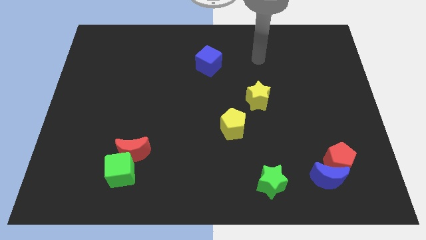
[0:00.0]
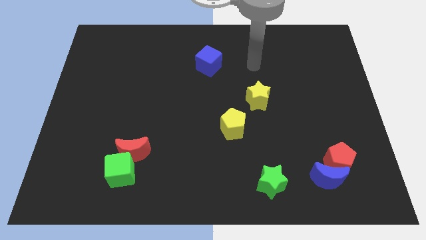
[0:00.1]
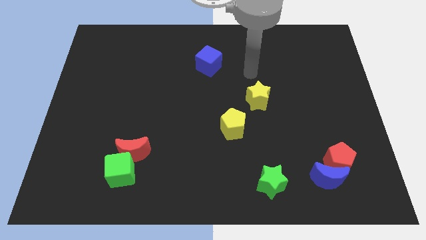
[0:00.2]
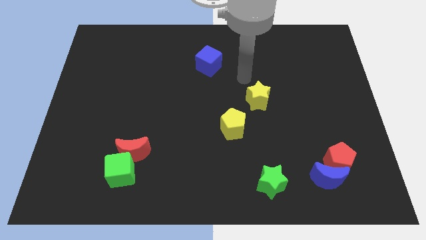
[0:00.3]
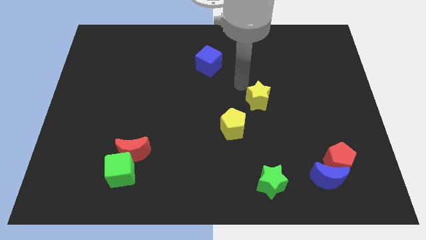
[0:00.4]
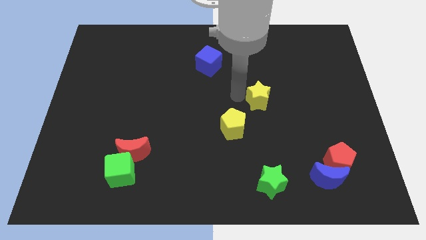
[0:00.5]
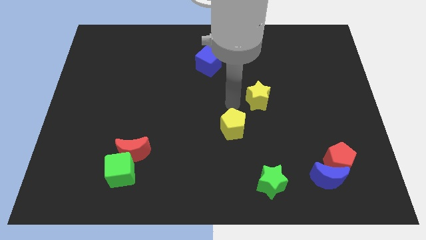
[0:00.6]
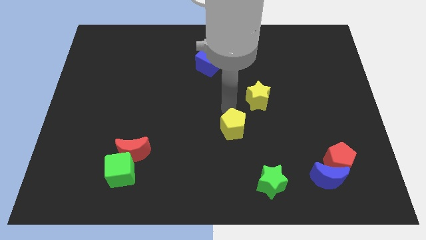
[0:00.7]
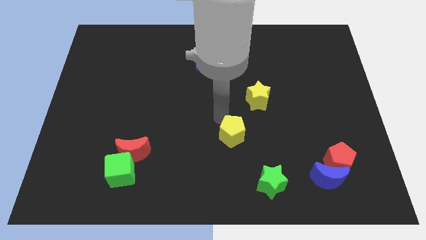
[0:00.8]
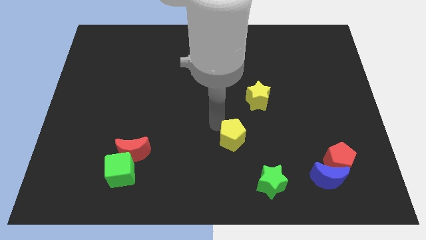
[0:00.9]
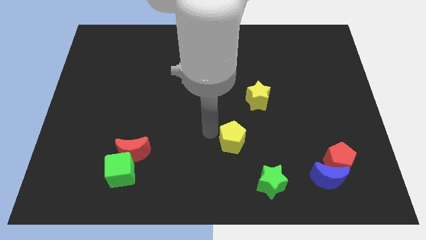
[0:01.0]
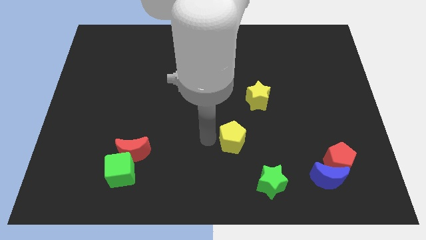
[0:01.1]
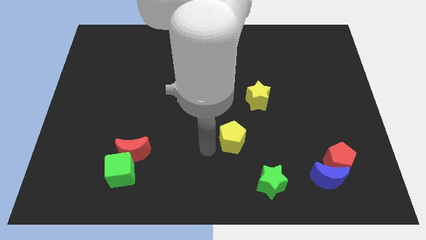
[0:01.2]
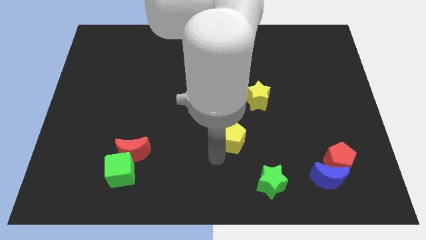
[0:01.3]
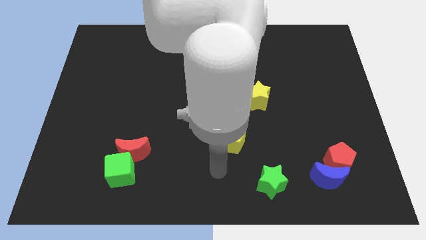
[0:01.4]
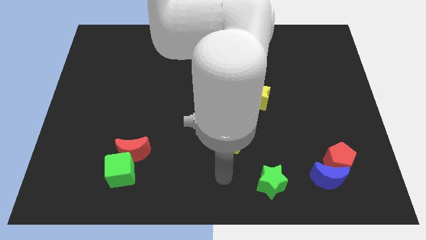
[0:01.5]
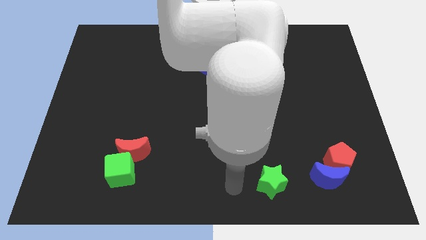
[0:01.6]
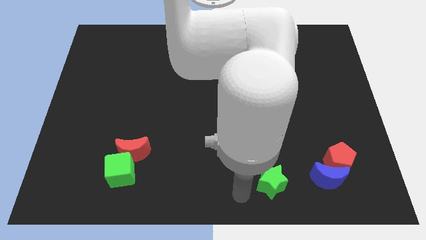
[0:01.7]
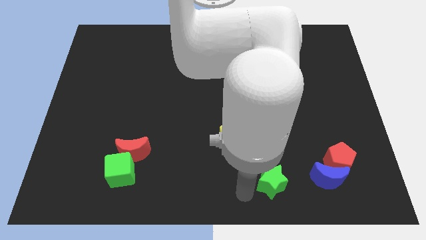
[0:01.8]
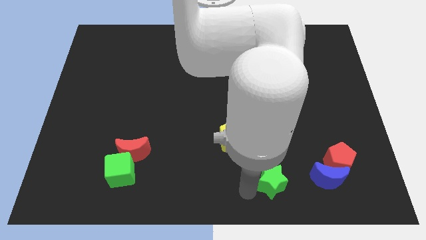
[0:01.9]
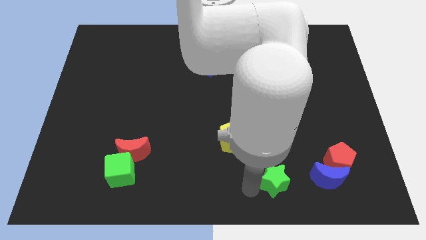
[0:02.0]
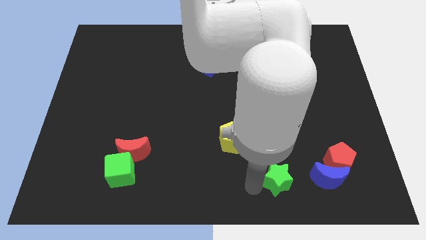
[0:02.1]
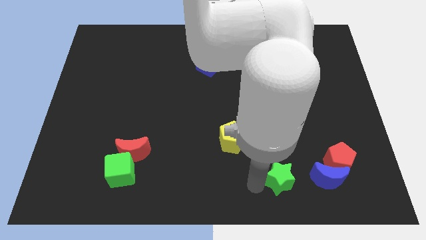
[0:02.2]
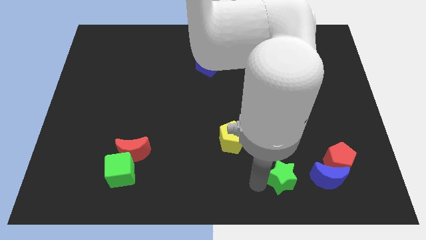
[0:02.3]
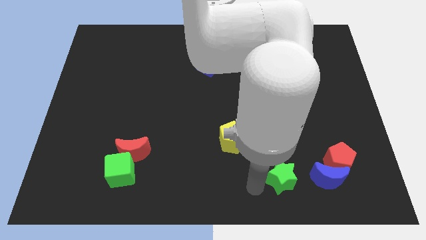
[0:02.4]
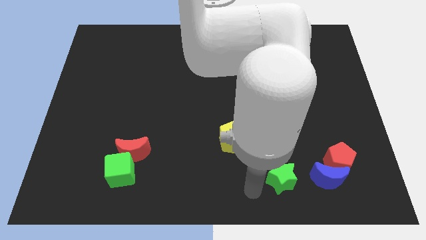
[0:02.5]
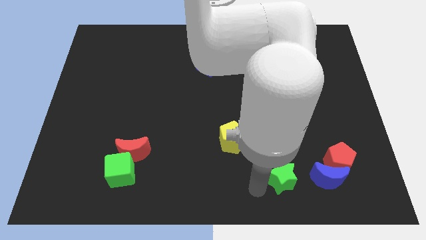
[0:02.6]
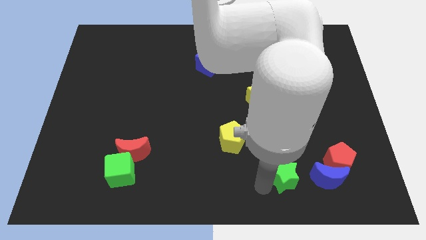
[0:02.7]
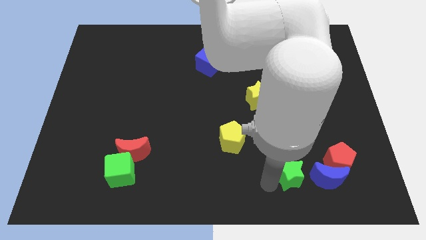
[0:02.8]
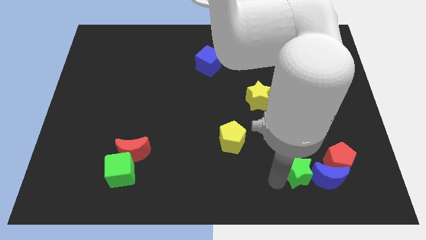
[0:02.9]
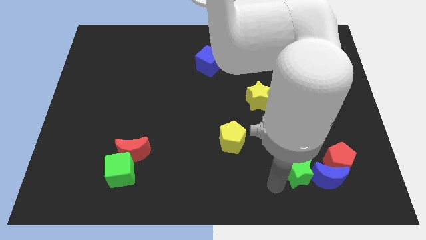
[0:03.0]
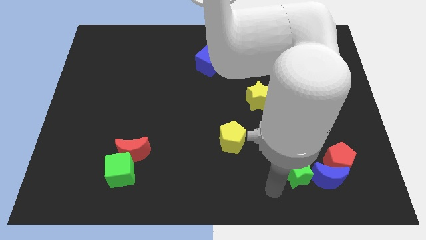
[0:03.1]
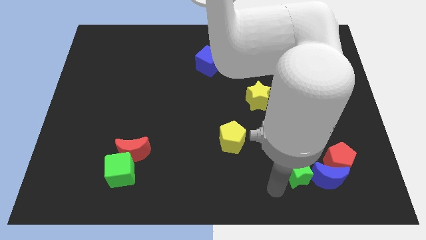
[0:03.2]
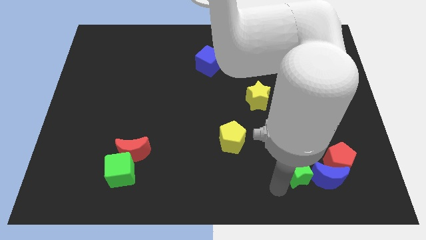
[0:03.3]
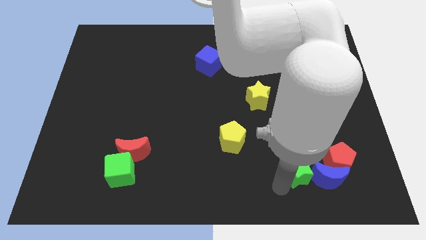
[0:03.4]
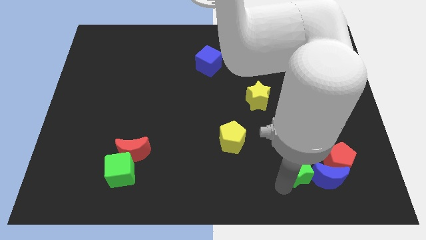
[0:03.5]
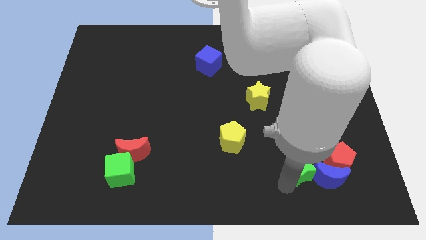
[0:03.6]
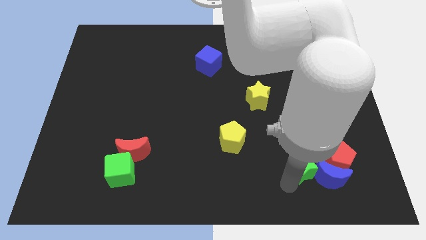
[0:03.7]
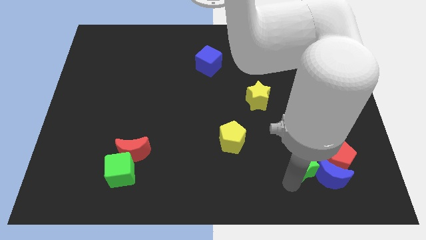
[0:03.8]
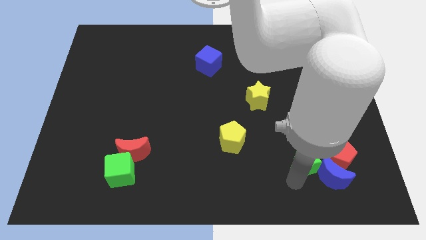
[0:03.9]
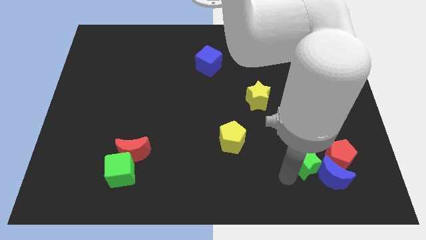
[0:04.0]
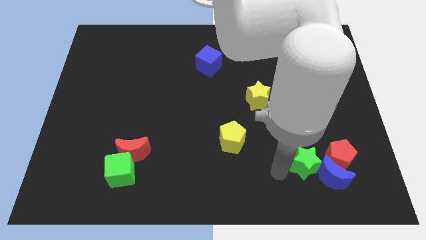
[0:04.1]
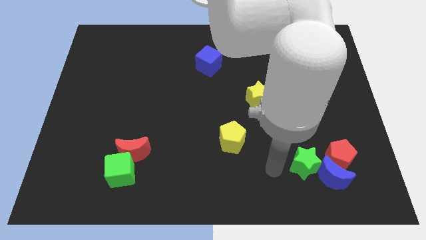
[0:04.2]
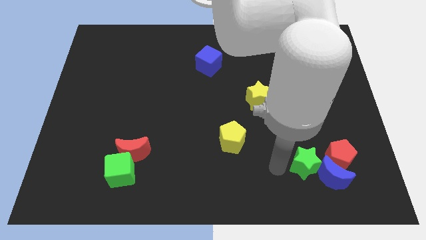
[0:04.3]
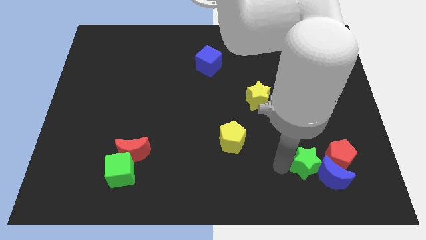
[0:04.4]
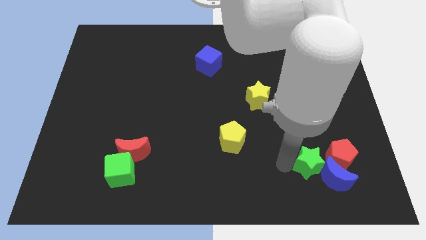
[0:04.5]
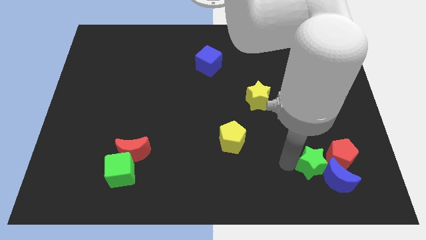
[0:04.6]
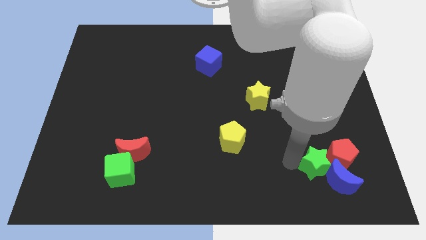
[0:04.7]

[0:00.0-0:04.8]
slide the green star next to the red pentagon

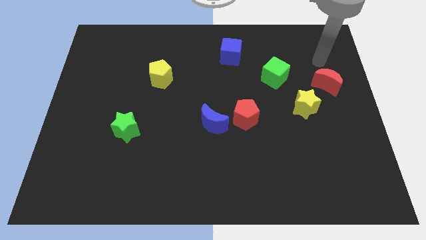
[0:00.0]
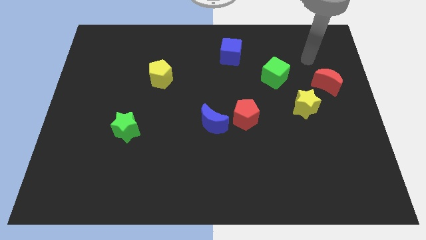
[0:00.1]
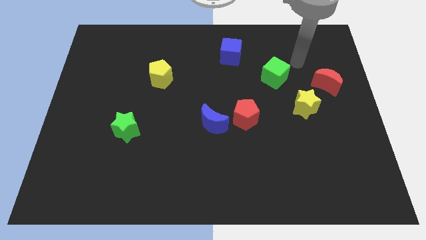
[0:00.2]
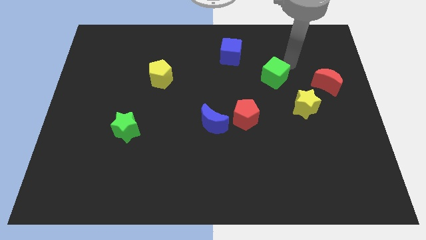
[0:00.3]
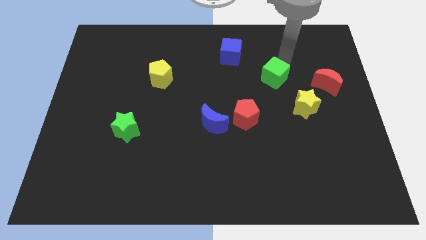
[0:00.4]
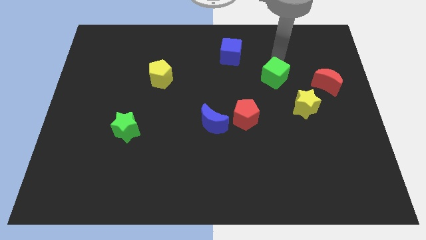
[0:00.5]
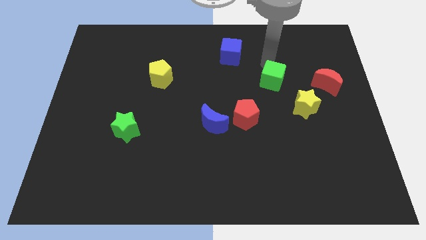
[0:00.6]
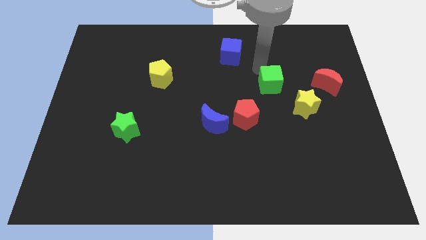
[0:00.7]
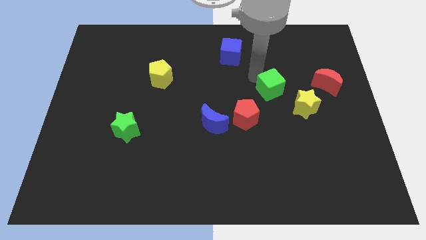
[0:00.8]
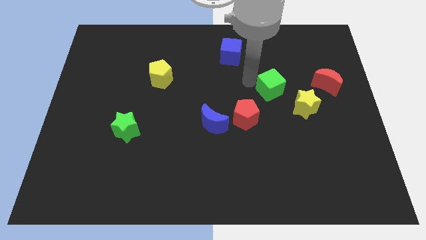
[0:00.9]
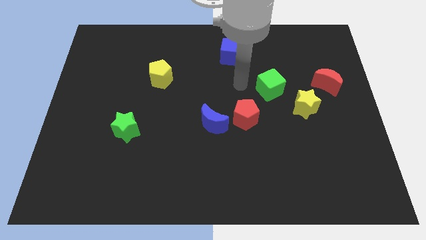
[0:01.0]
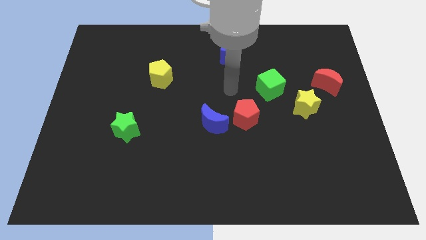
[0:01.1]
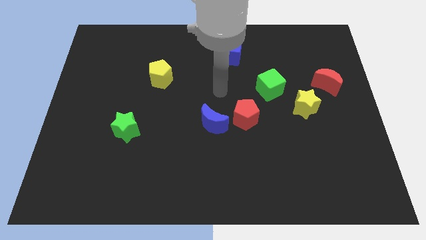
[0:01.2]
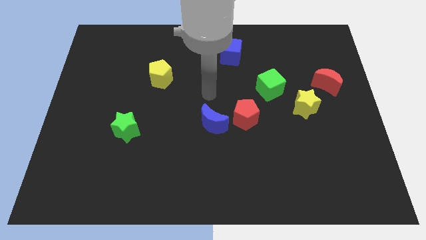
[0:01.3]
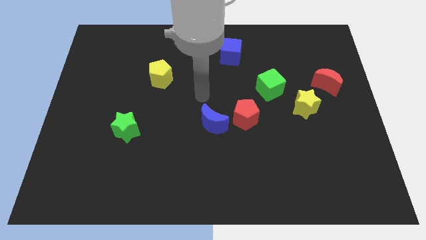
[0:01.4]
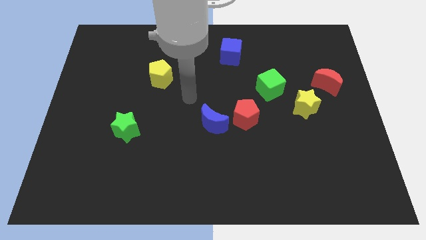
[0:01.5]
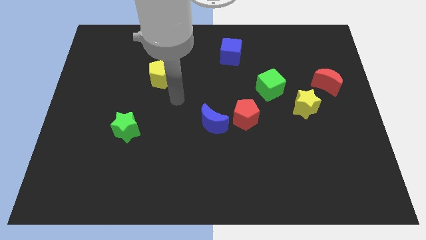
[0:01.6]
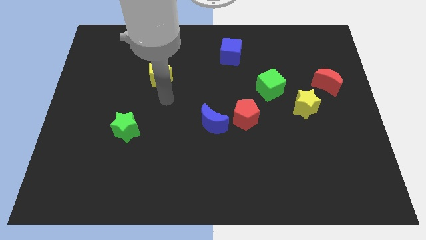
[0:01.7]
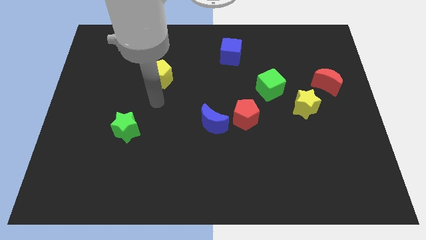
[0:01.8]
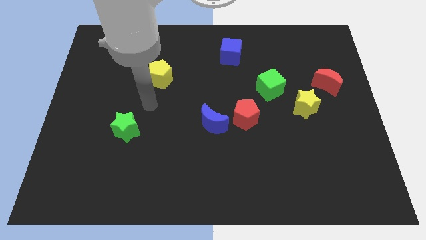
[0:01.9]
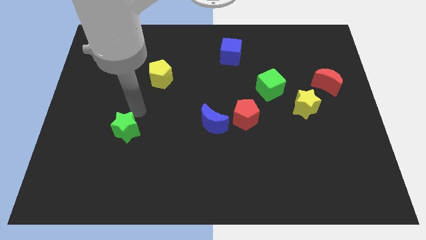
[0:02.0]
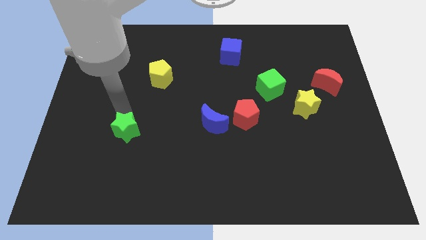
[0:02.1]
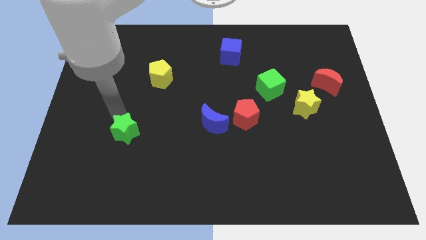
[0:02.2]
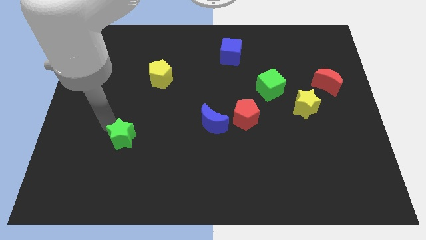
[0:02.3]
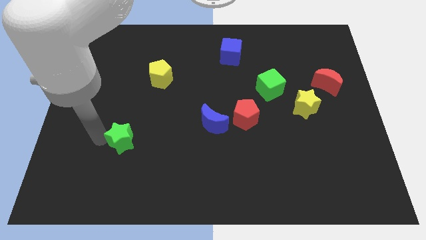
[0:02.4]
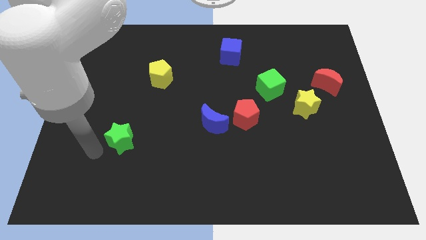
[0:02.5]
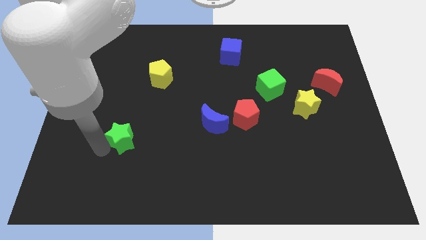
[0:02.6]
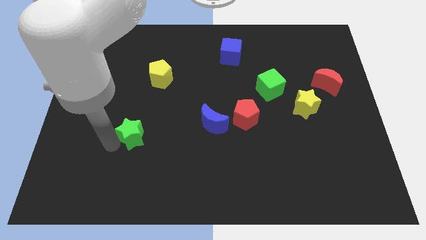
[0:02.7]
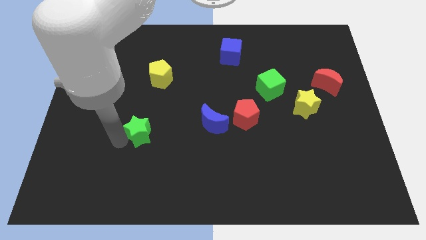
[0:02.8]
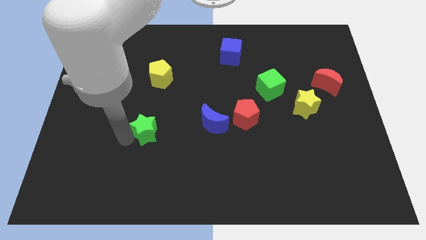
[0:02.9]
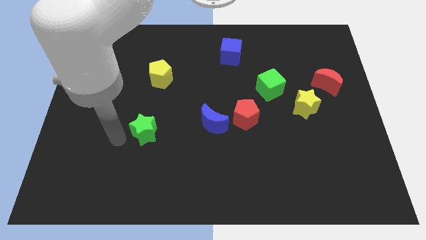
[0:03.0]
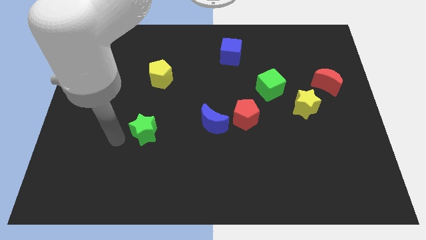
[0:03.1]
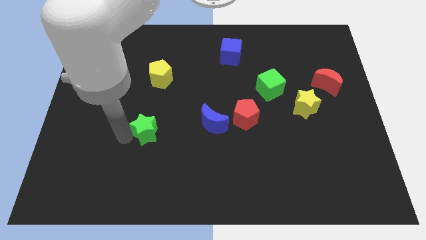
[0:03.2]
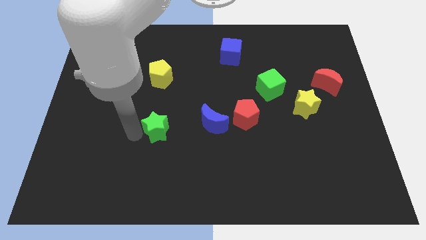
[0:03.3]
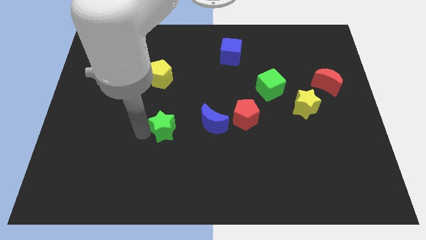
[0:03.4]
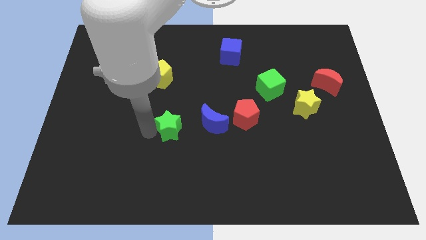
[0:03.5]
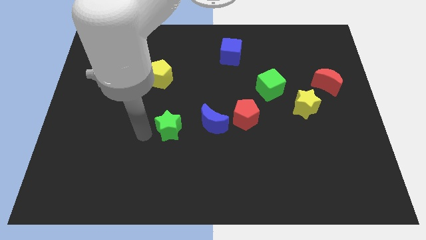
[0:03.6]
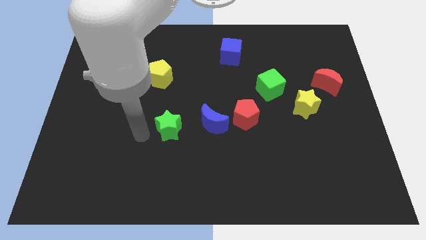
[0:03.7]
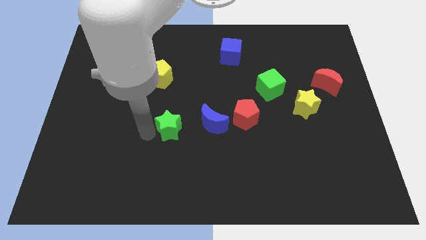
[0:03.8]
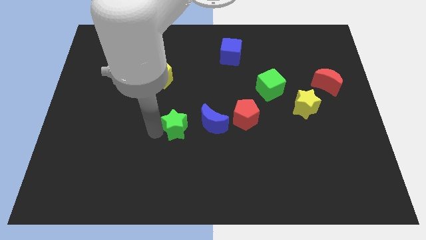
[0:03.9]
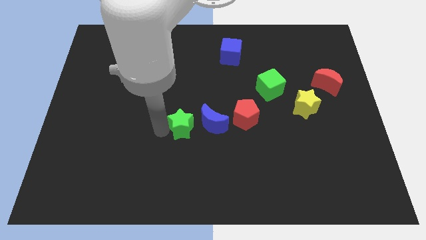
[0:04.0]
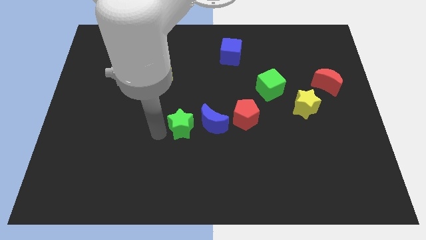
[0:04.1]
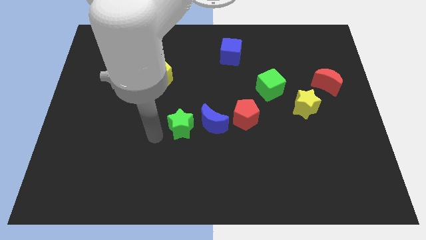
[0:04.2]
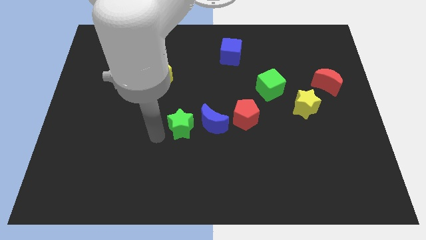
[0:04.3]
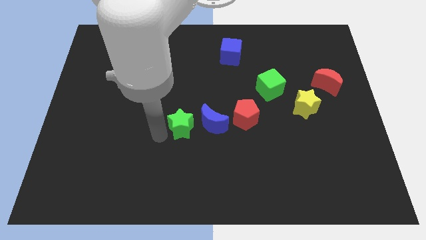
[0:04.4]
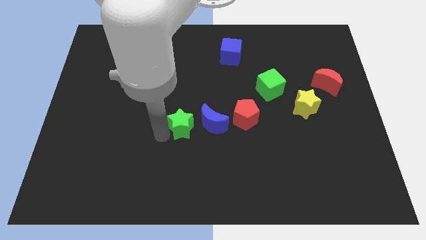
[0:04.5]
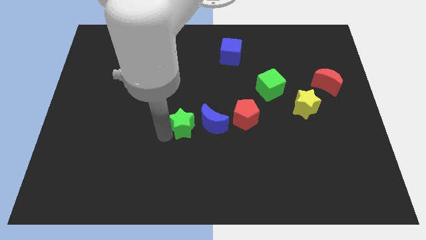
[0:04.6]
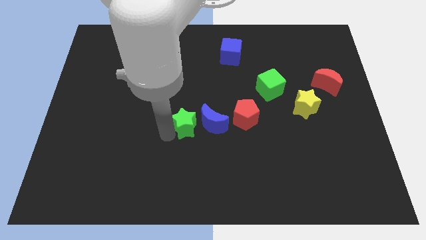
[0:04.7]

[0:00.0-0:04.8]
move the green star to the blue moon
